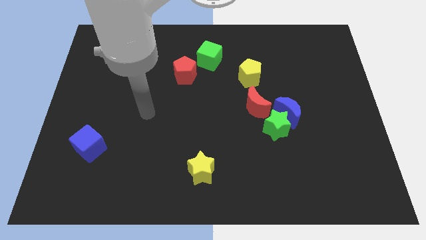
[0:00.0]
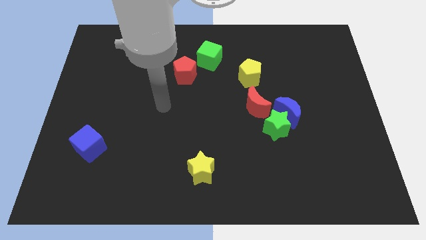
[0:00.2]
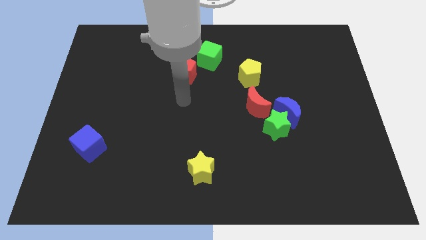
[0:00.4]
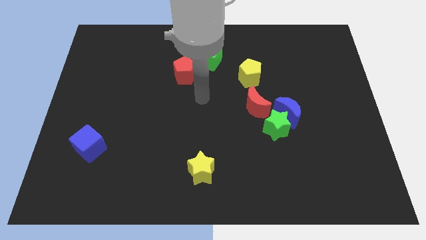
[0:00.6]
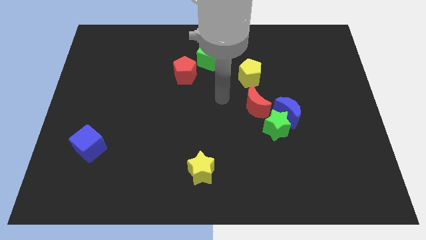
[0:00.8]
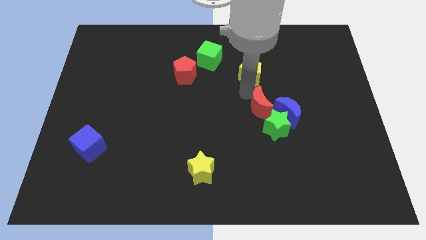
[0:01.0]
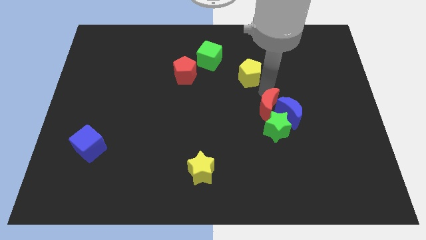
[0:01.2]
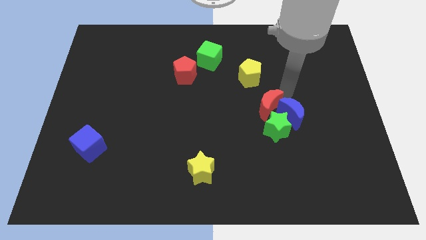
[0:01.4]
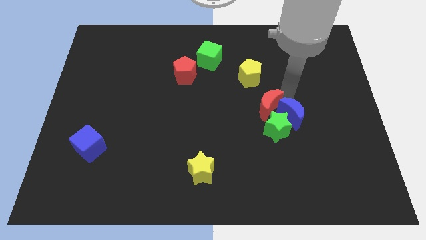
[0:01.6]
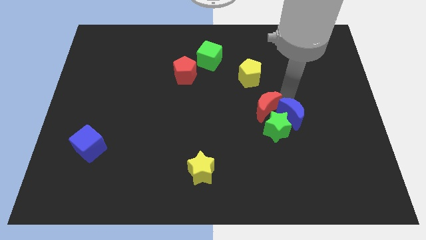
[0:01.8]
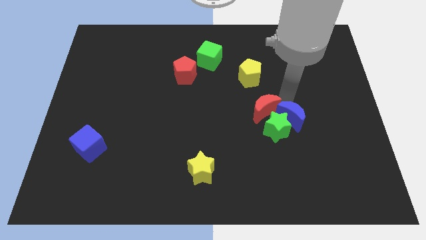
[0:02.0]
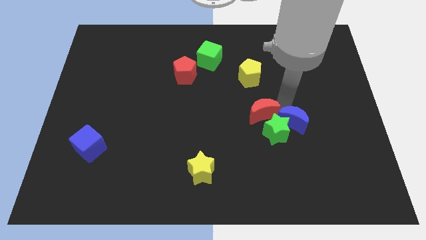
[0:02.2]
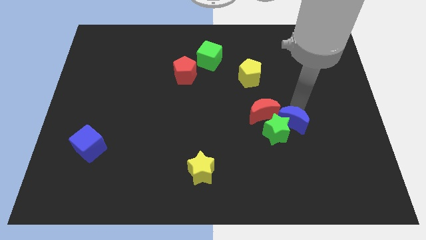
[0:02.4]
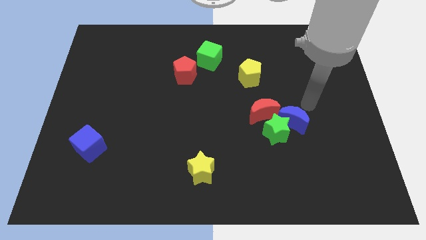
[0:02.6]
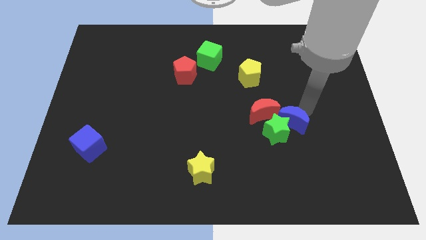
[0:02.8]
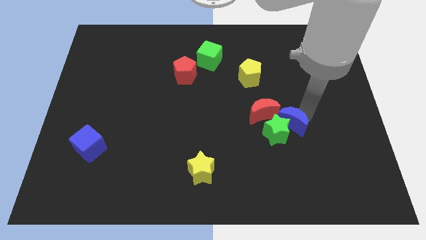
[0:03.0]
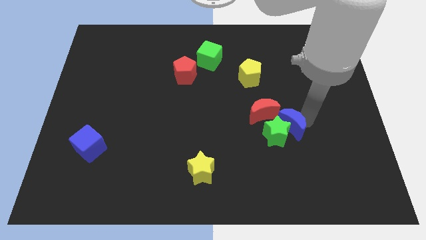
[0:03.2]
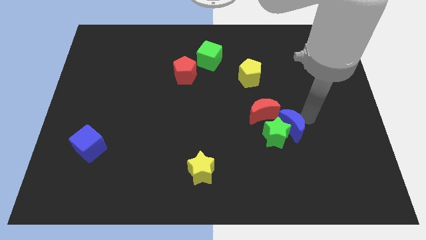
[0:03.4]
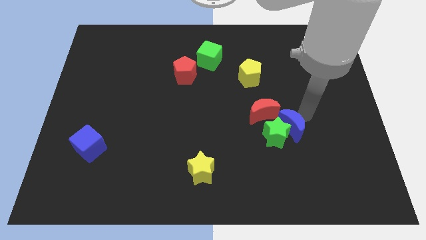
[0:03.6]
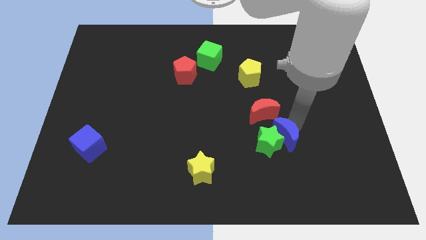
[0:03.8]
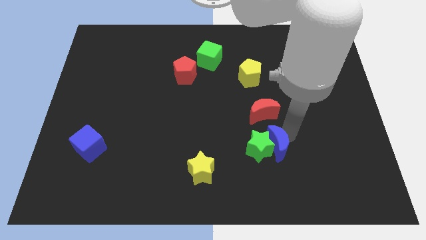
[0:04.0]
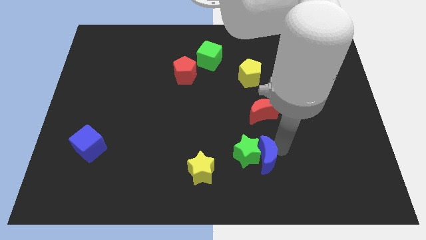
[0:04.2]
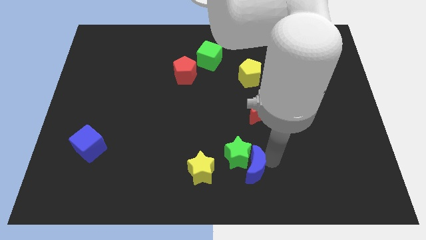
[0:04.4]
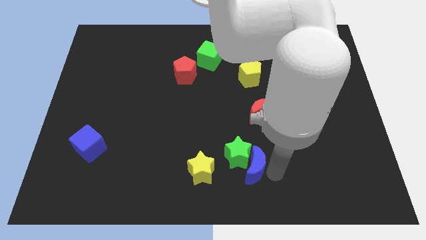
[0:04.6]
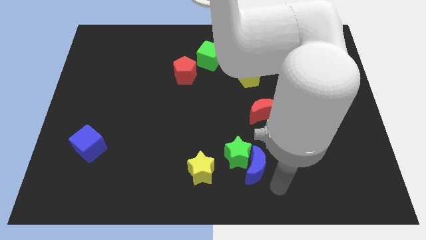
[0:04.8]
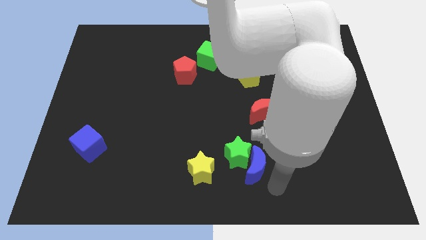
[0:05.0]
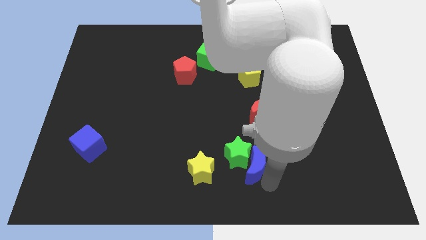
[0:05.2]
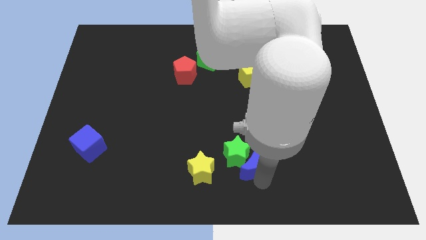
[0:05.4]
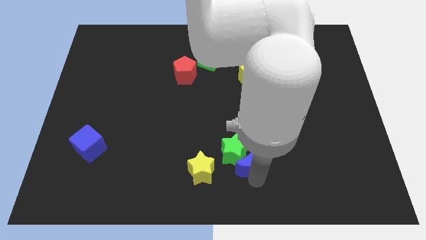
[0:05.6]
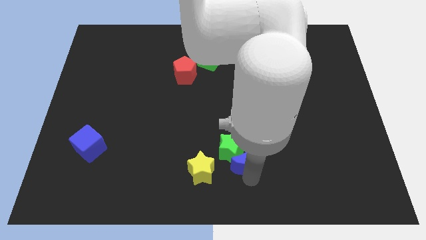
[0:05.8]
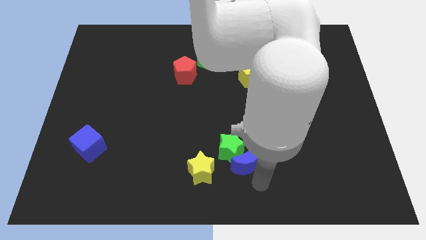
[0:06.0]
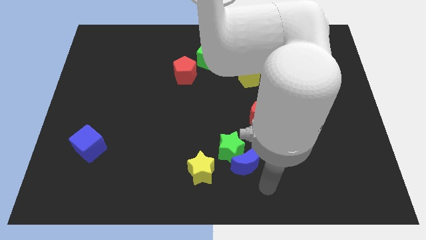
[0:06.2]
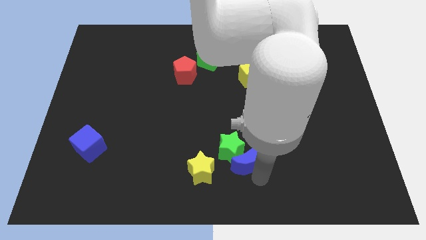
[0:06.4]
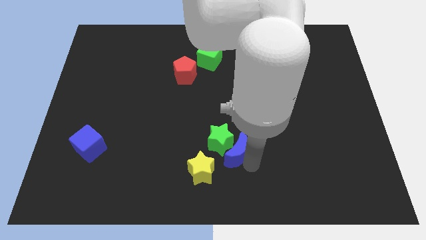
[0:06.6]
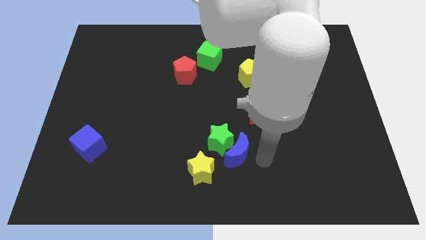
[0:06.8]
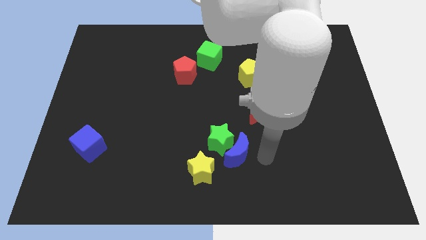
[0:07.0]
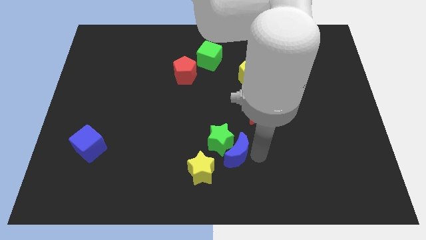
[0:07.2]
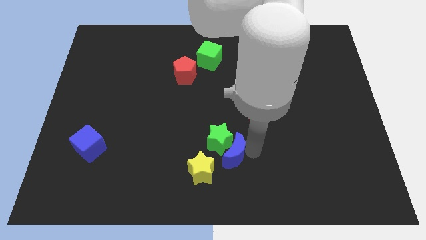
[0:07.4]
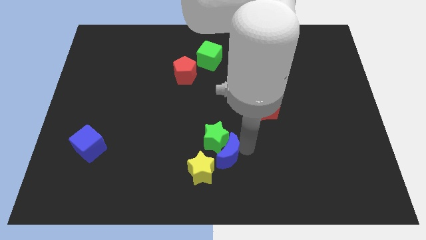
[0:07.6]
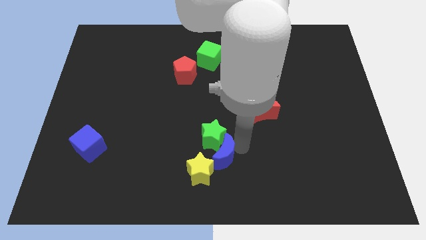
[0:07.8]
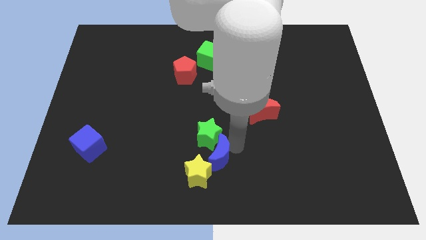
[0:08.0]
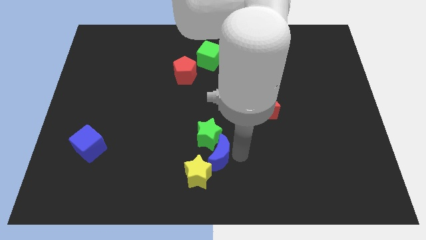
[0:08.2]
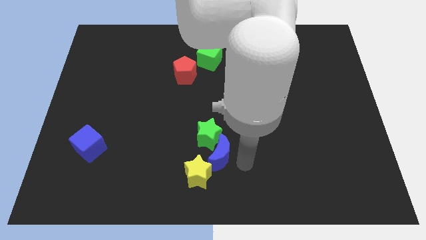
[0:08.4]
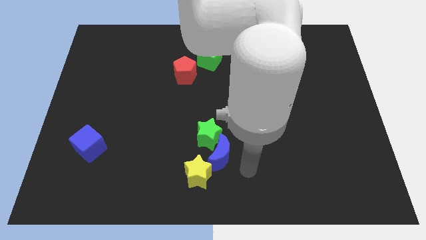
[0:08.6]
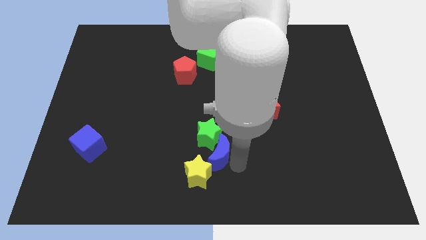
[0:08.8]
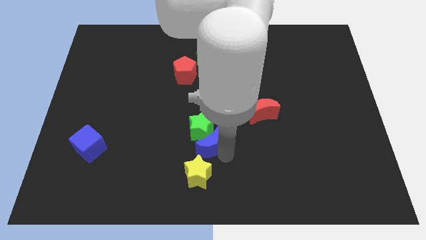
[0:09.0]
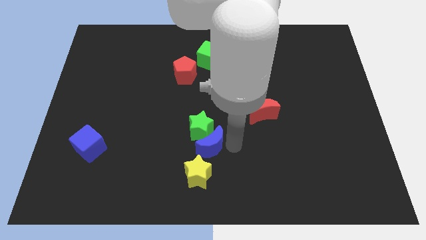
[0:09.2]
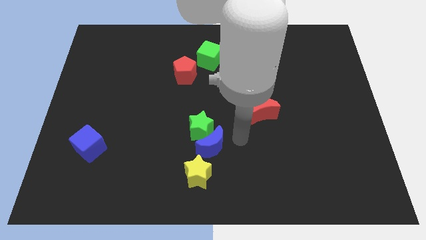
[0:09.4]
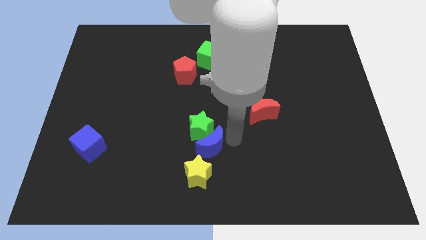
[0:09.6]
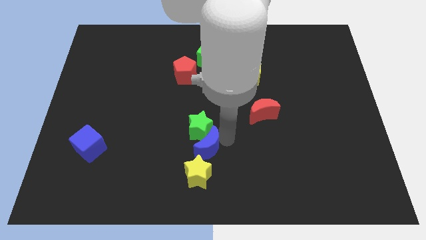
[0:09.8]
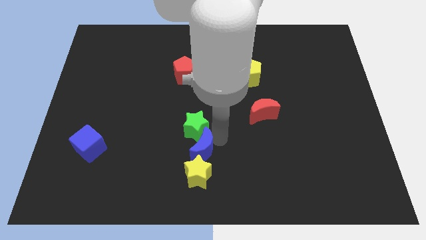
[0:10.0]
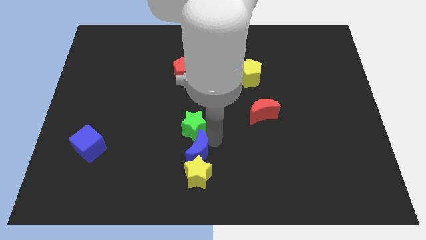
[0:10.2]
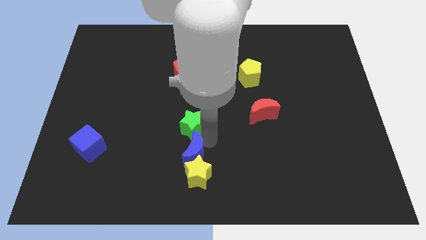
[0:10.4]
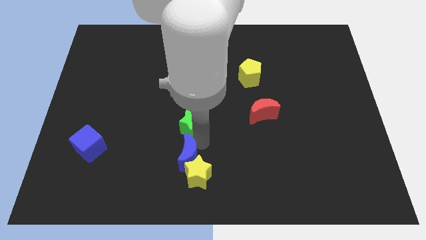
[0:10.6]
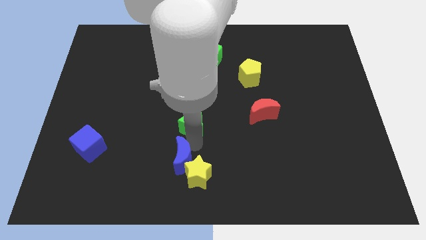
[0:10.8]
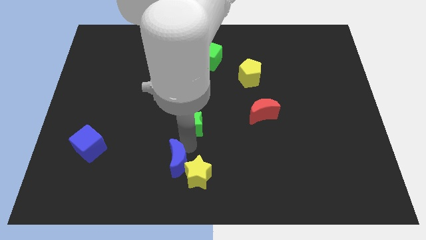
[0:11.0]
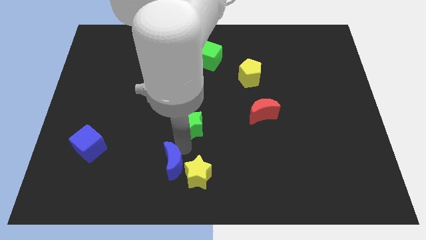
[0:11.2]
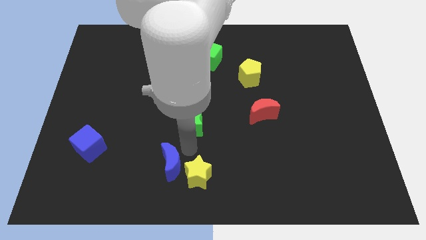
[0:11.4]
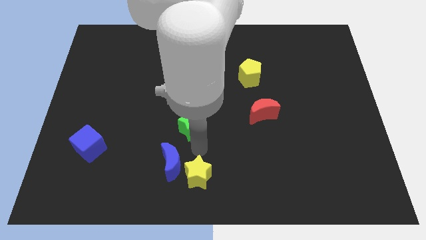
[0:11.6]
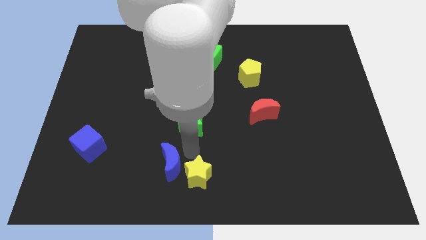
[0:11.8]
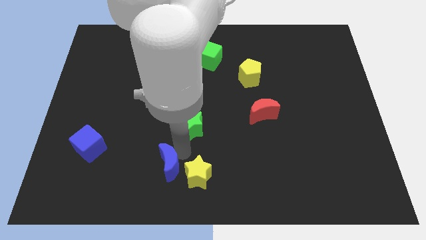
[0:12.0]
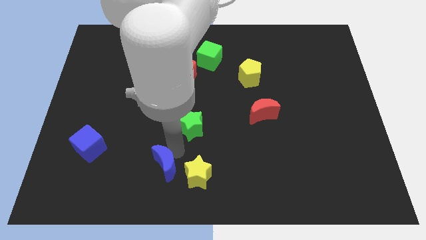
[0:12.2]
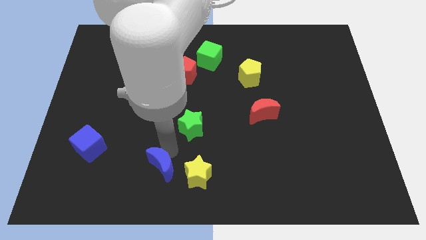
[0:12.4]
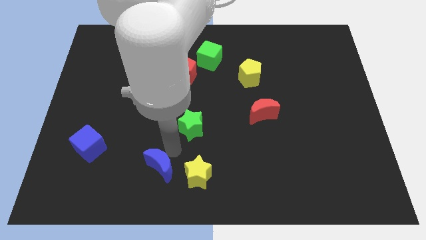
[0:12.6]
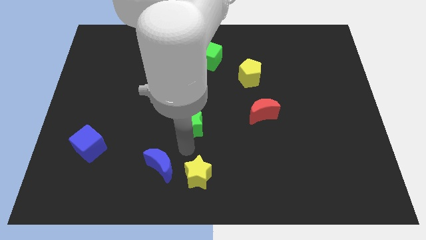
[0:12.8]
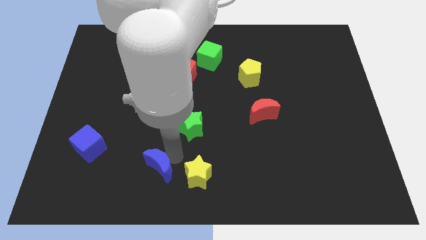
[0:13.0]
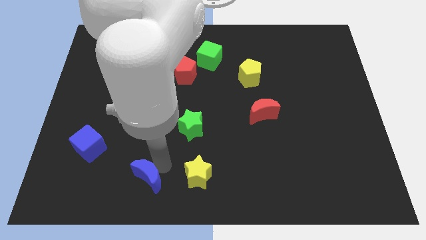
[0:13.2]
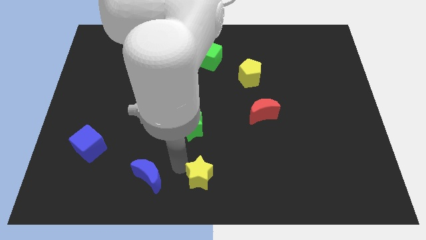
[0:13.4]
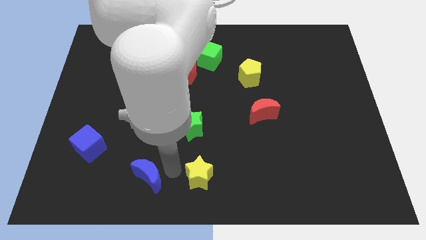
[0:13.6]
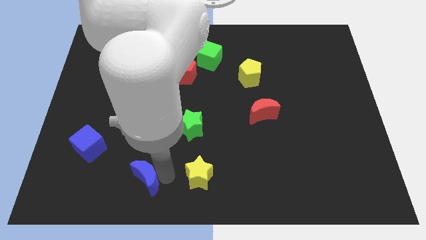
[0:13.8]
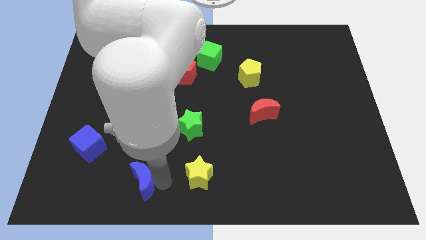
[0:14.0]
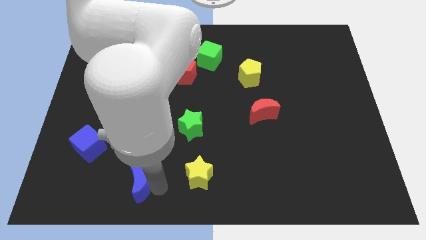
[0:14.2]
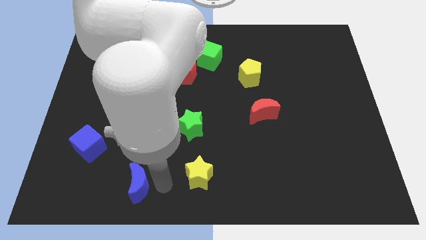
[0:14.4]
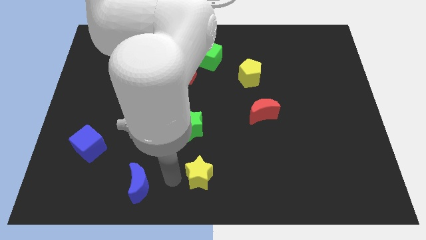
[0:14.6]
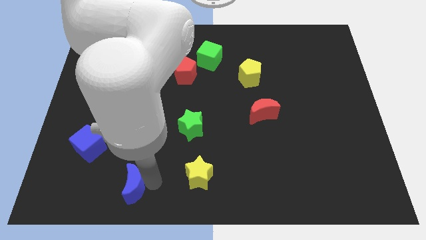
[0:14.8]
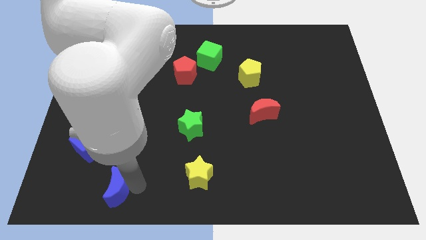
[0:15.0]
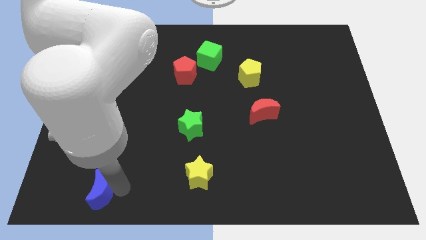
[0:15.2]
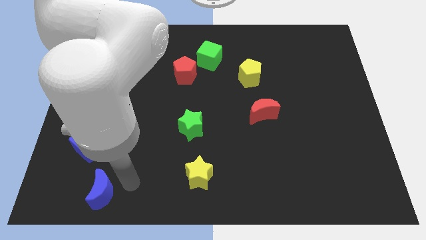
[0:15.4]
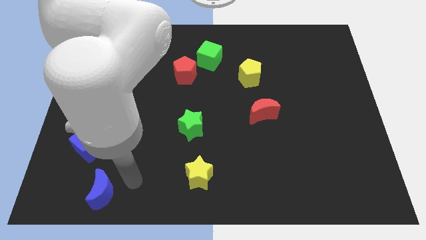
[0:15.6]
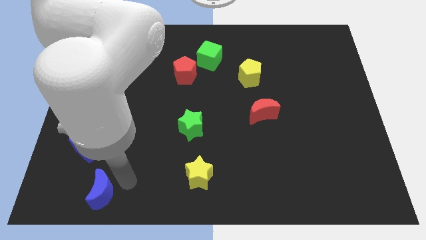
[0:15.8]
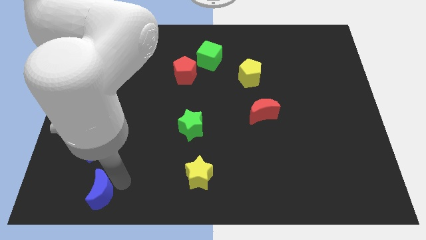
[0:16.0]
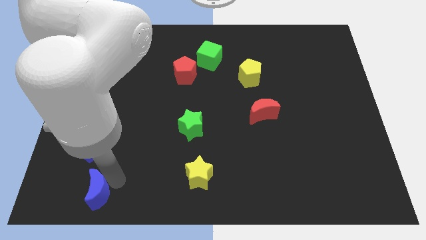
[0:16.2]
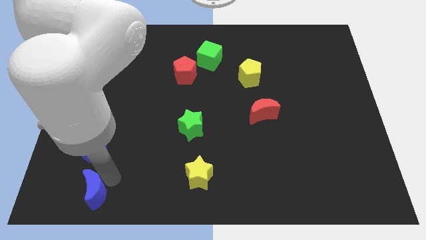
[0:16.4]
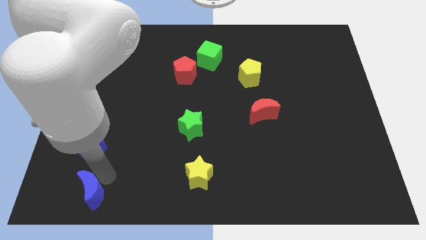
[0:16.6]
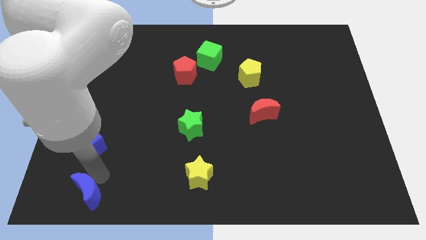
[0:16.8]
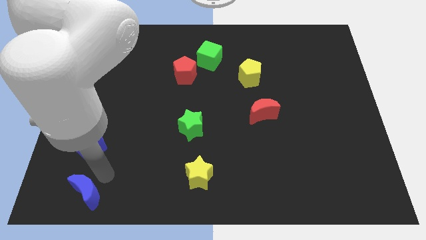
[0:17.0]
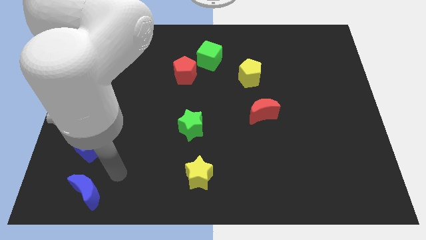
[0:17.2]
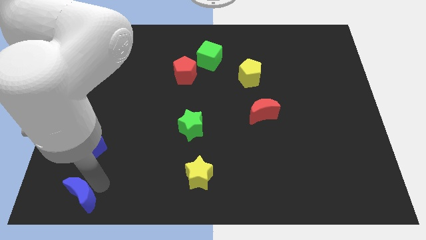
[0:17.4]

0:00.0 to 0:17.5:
put the blue moon to the bottom left corner
